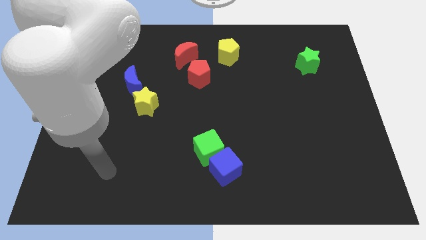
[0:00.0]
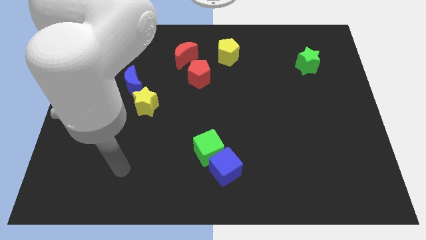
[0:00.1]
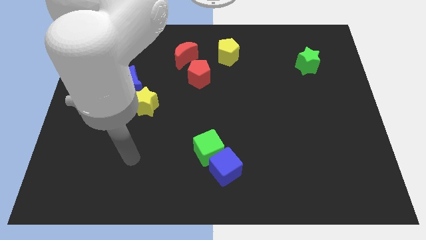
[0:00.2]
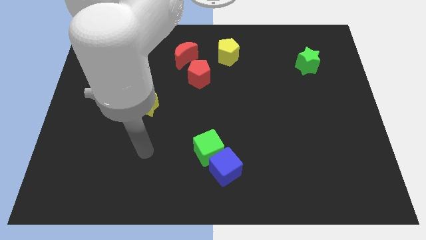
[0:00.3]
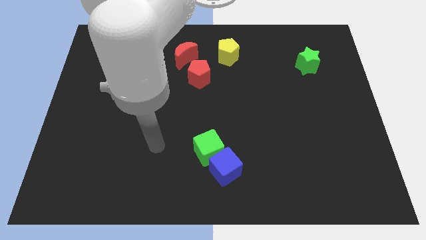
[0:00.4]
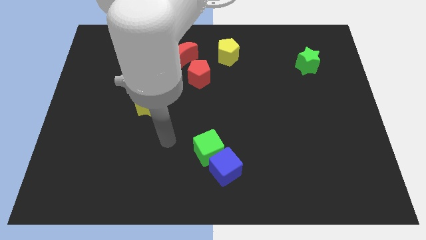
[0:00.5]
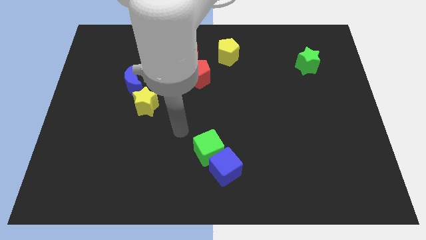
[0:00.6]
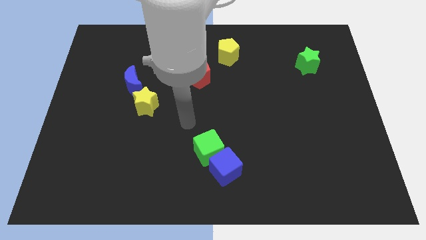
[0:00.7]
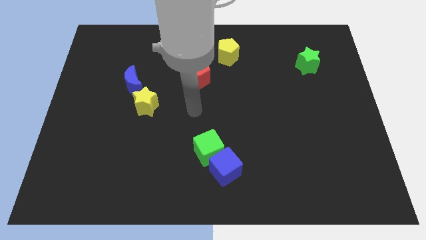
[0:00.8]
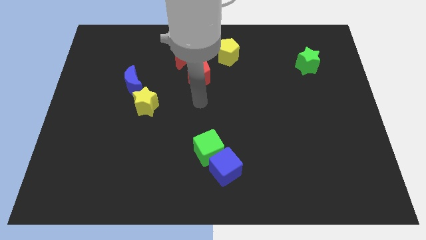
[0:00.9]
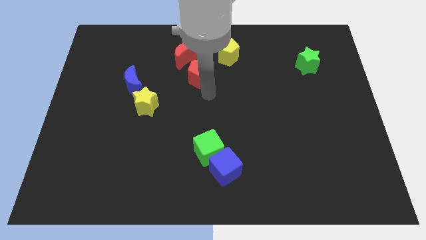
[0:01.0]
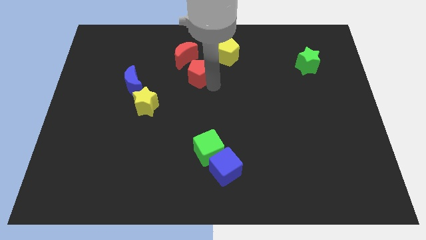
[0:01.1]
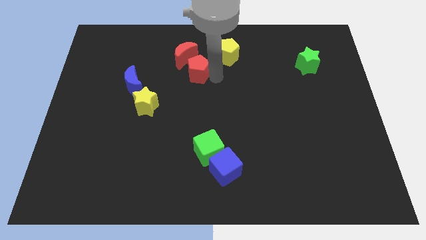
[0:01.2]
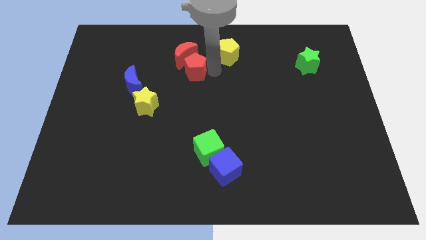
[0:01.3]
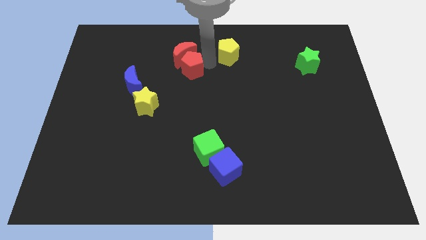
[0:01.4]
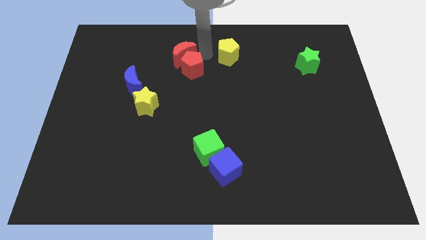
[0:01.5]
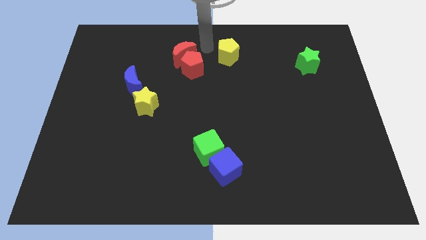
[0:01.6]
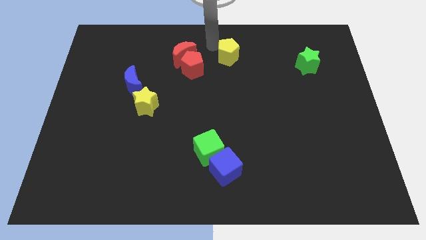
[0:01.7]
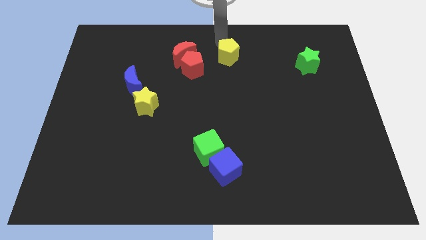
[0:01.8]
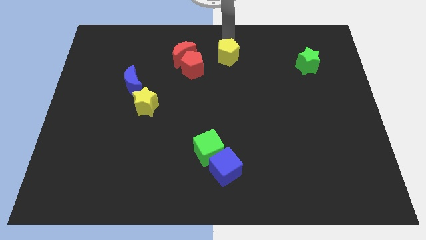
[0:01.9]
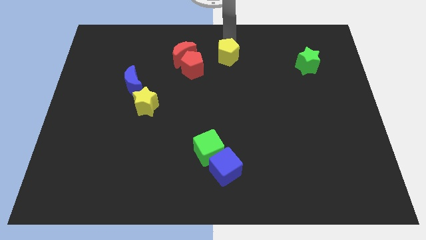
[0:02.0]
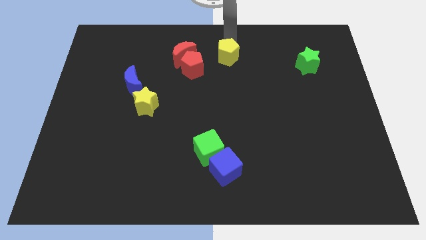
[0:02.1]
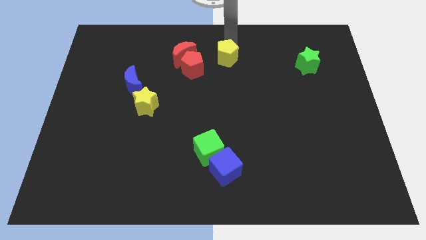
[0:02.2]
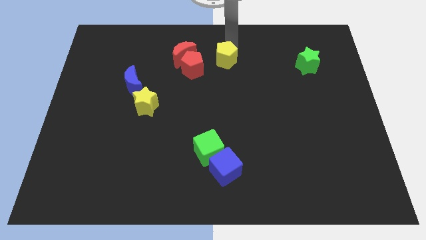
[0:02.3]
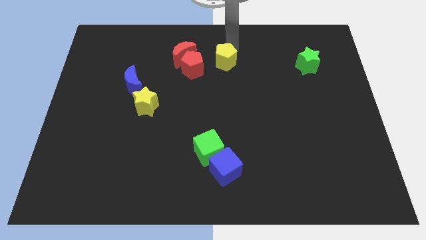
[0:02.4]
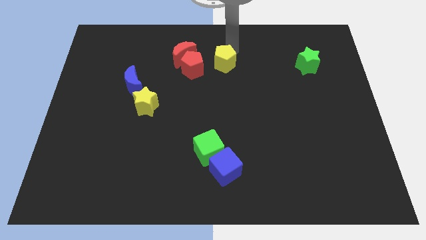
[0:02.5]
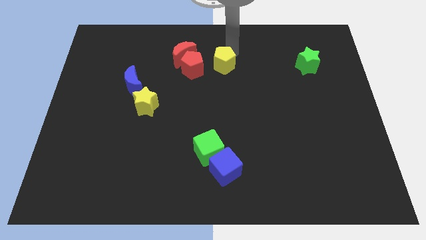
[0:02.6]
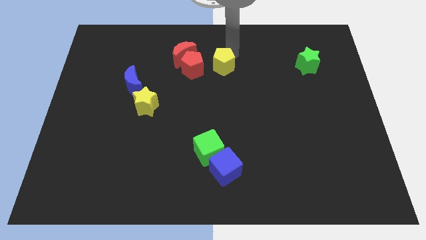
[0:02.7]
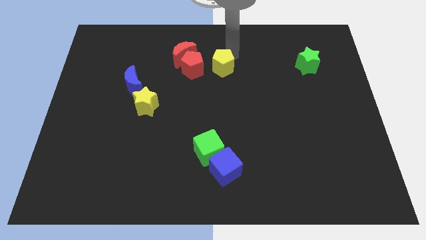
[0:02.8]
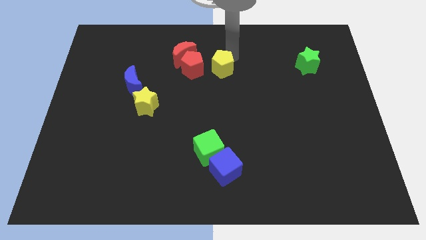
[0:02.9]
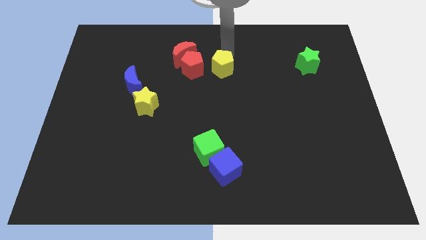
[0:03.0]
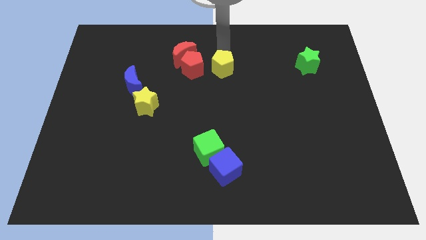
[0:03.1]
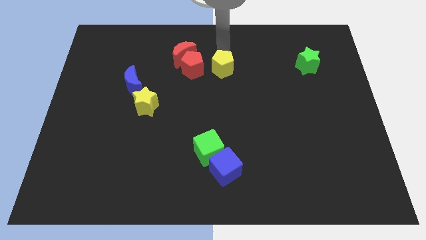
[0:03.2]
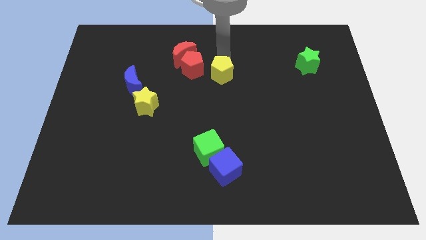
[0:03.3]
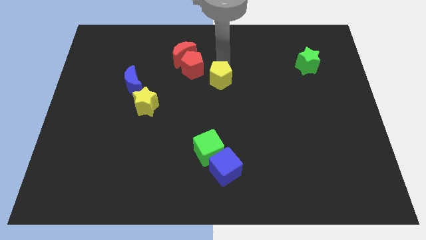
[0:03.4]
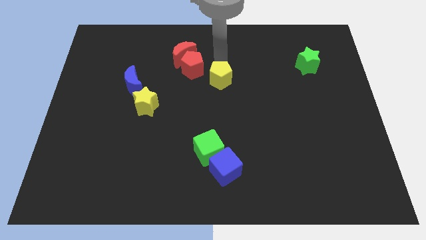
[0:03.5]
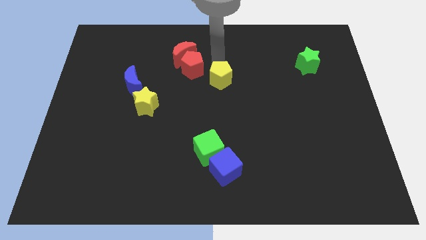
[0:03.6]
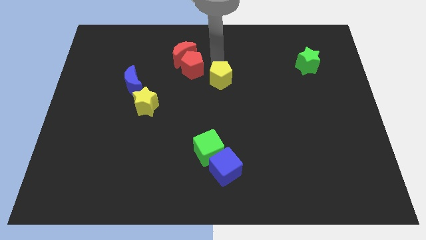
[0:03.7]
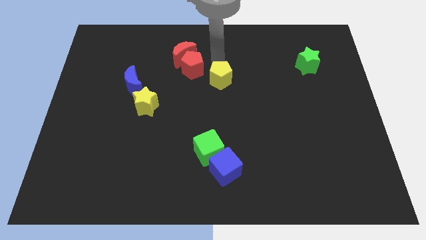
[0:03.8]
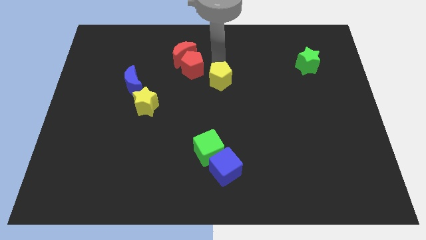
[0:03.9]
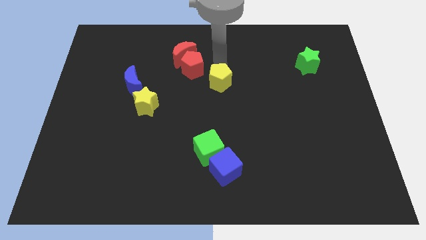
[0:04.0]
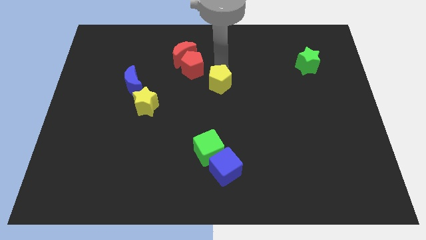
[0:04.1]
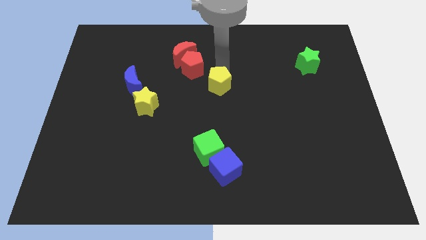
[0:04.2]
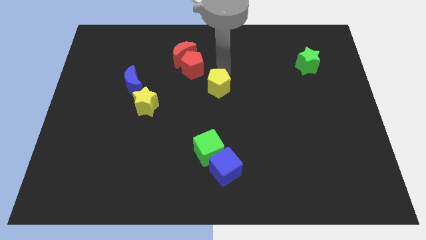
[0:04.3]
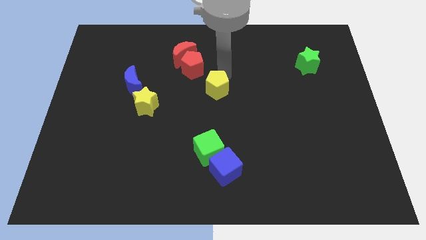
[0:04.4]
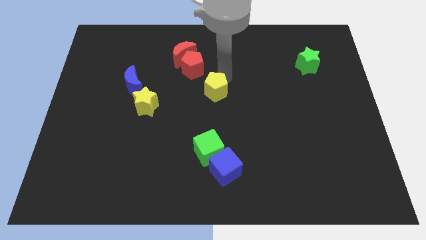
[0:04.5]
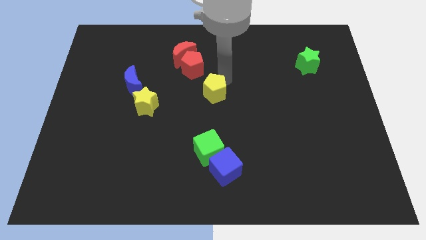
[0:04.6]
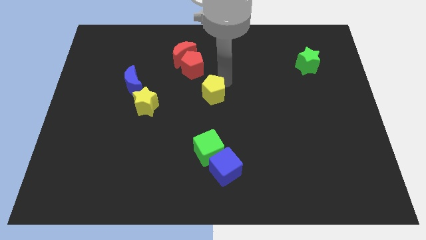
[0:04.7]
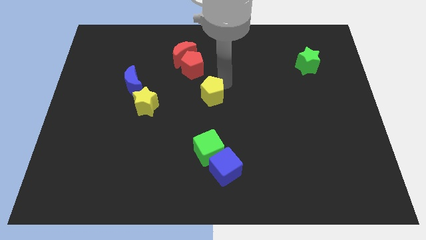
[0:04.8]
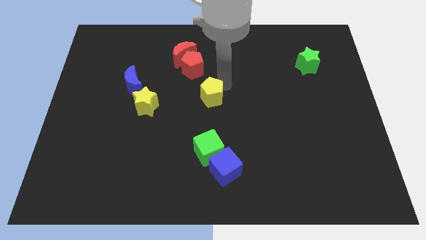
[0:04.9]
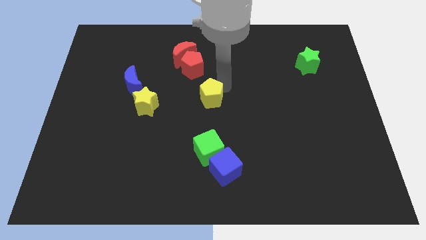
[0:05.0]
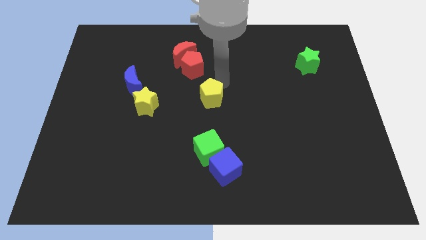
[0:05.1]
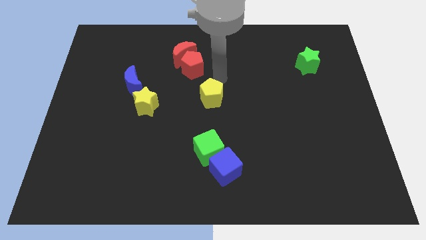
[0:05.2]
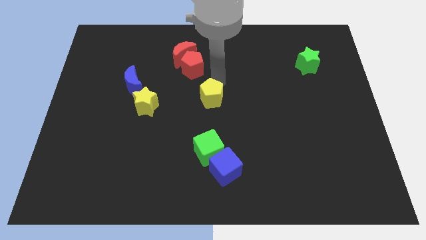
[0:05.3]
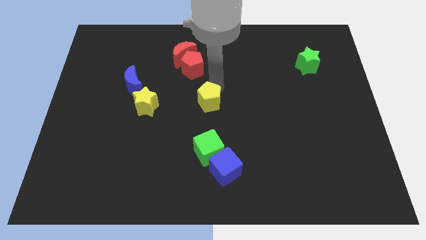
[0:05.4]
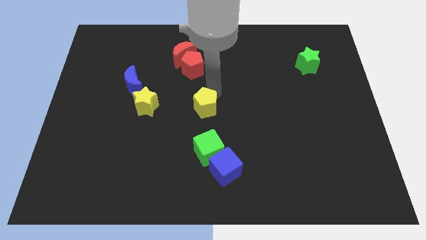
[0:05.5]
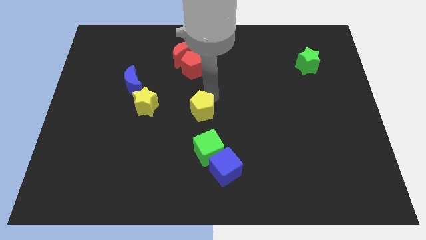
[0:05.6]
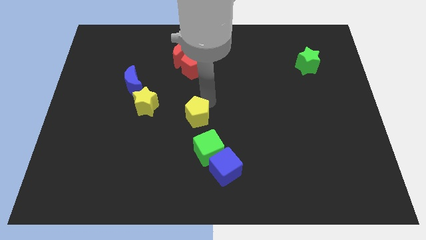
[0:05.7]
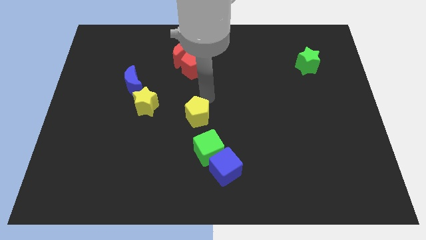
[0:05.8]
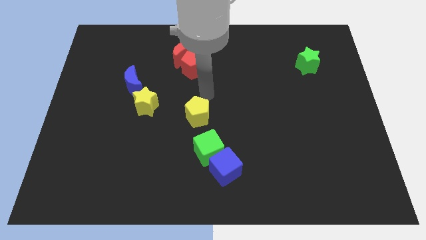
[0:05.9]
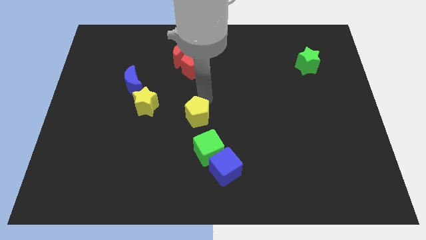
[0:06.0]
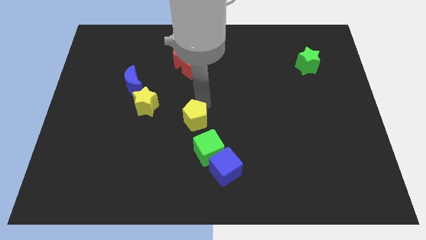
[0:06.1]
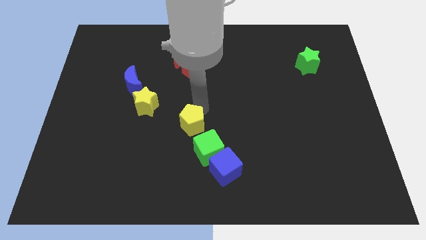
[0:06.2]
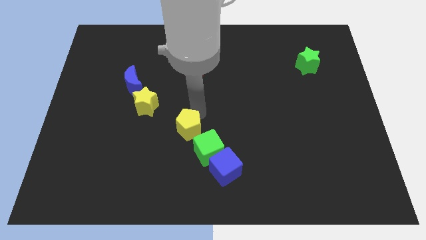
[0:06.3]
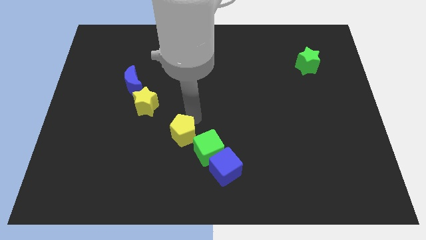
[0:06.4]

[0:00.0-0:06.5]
put the yellow pentagon diagonally up and to the left of the blue cube
